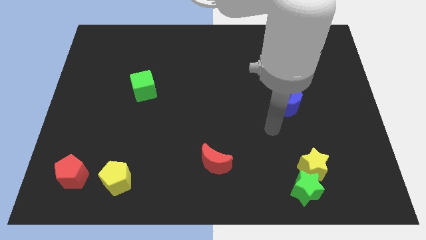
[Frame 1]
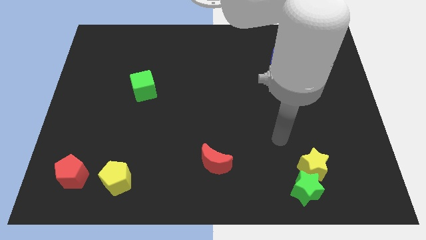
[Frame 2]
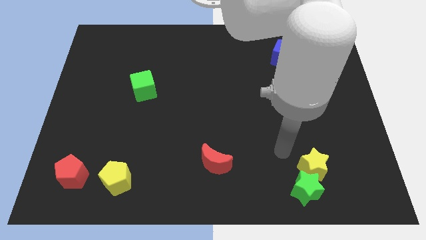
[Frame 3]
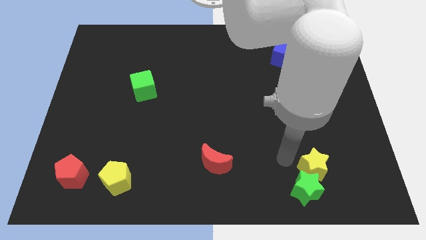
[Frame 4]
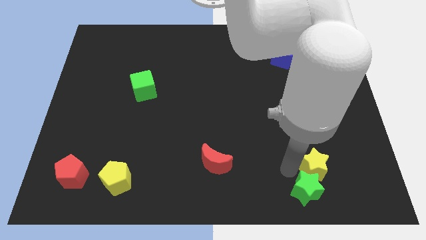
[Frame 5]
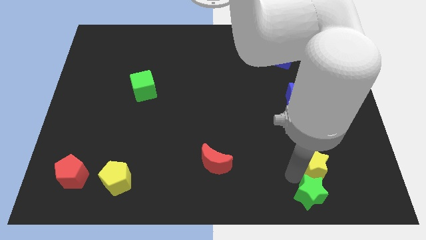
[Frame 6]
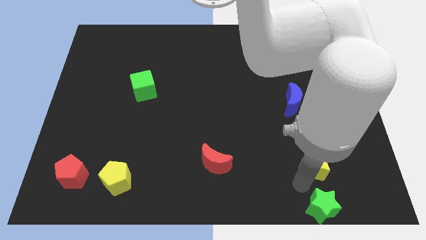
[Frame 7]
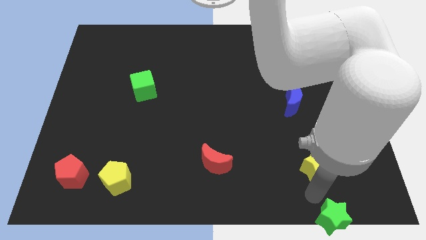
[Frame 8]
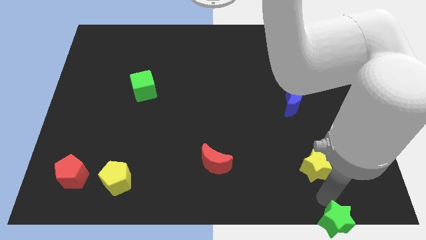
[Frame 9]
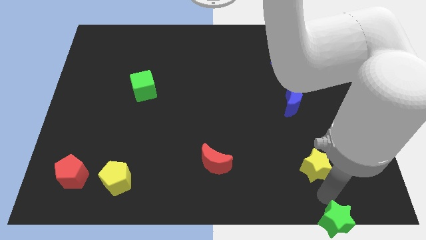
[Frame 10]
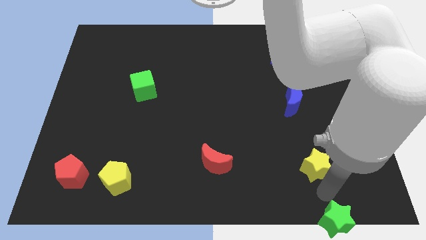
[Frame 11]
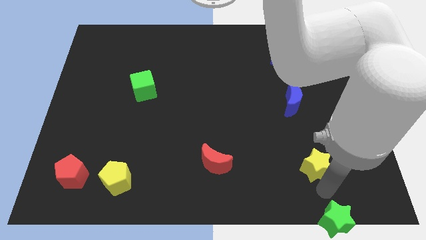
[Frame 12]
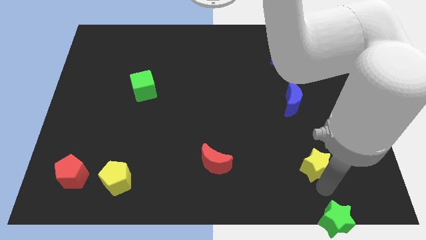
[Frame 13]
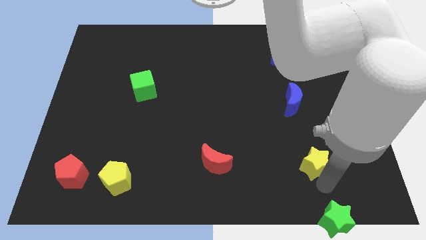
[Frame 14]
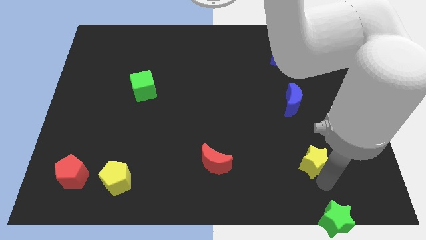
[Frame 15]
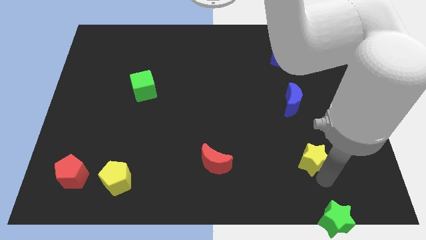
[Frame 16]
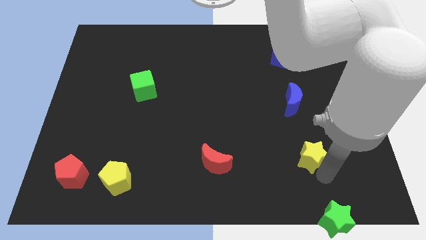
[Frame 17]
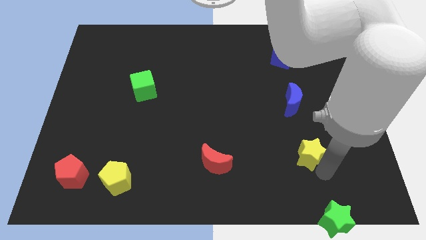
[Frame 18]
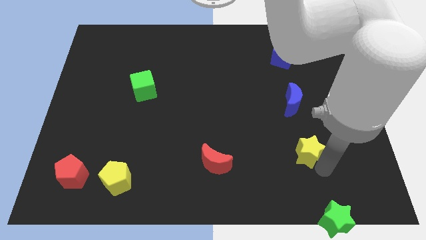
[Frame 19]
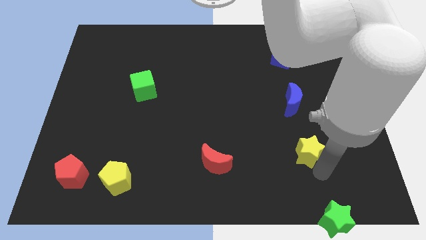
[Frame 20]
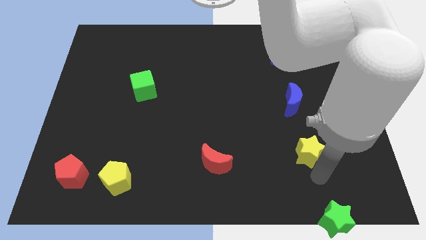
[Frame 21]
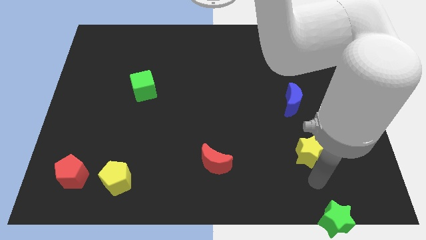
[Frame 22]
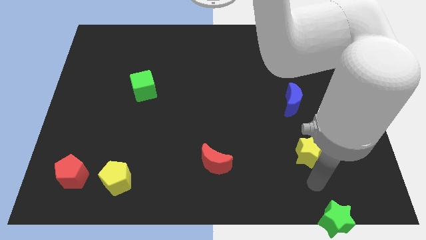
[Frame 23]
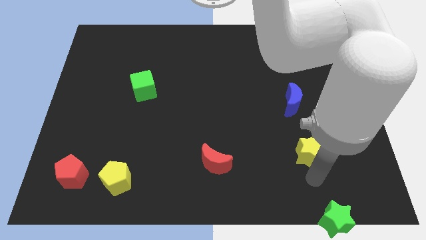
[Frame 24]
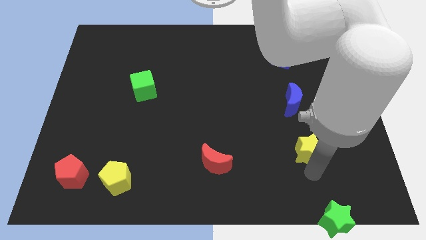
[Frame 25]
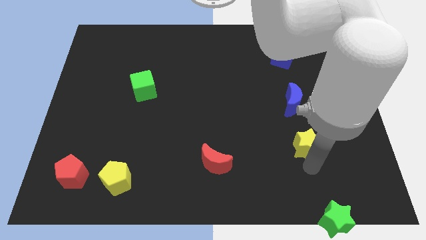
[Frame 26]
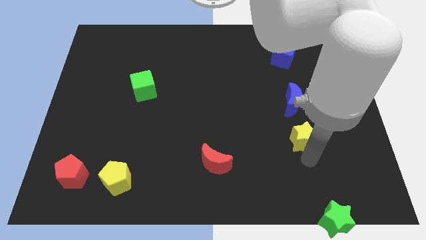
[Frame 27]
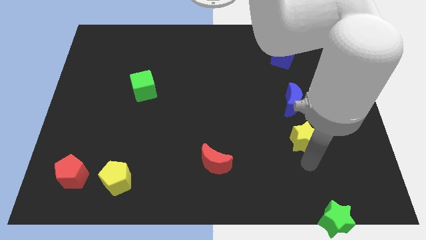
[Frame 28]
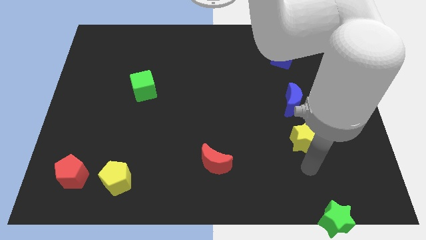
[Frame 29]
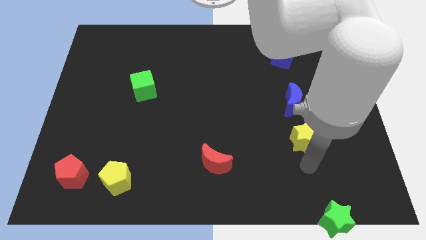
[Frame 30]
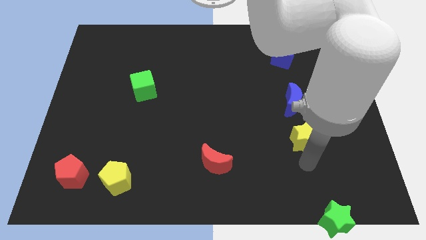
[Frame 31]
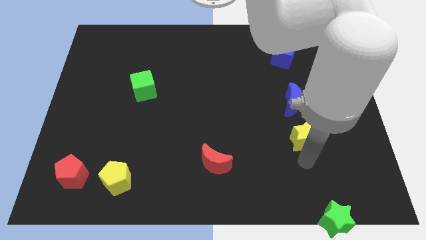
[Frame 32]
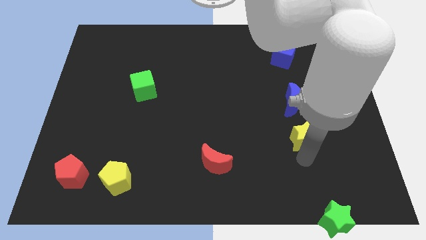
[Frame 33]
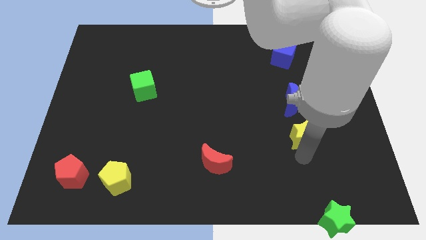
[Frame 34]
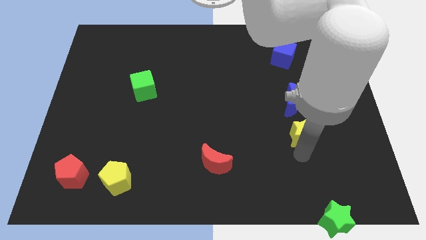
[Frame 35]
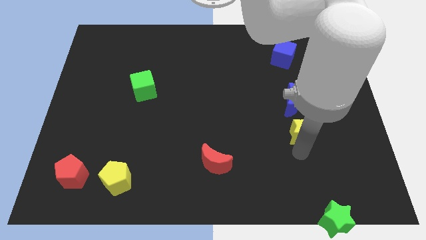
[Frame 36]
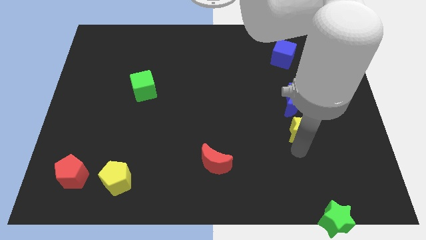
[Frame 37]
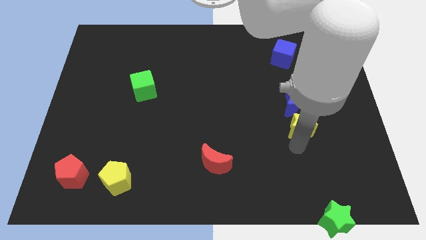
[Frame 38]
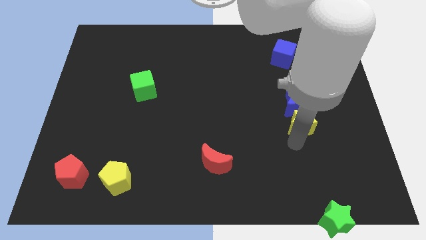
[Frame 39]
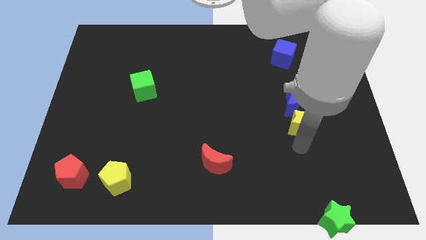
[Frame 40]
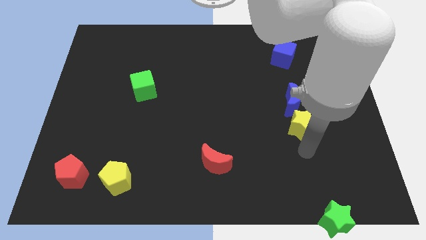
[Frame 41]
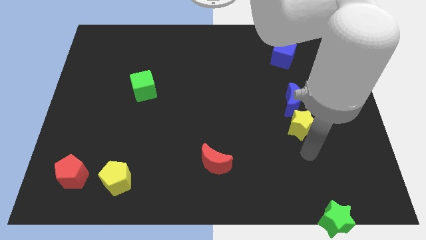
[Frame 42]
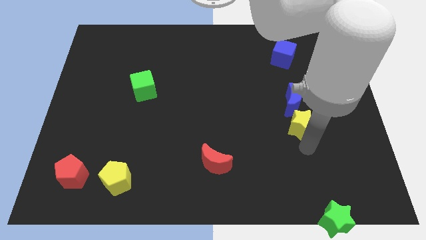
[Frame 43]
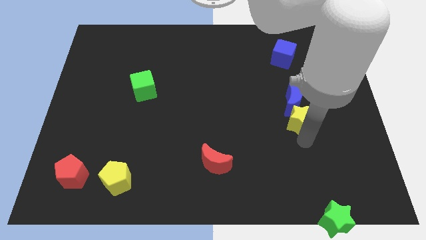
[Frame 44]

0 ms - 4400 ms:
put the yellow star close to the blue moon

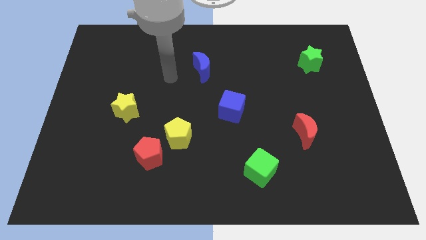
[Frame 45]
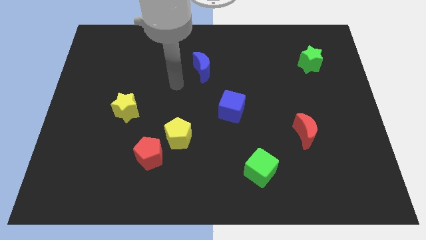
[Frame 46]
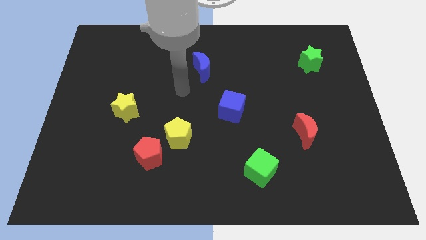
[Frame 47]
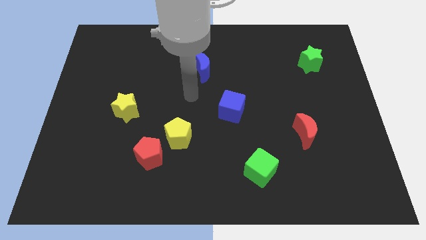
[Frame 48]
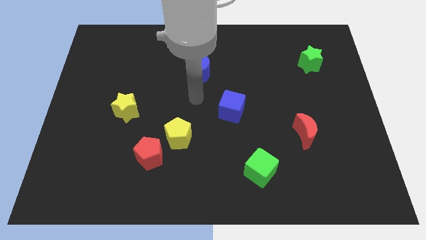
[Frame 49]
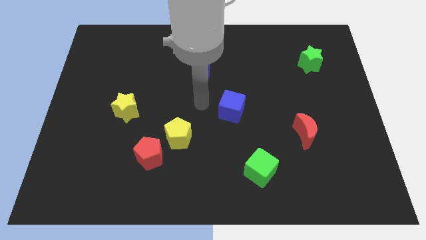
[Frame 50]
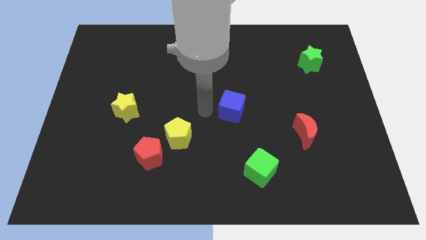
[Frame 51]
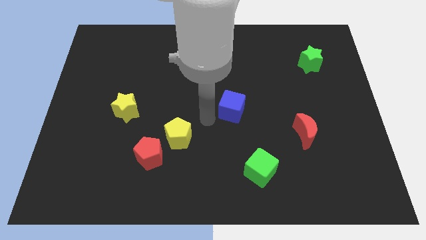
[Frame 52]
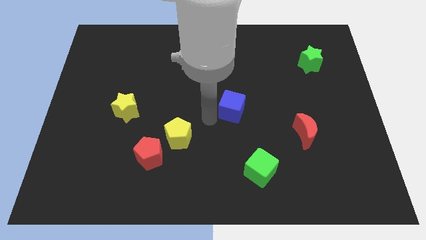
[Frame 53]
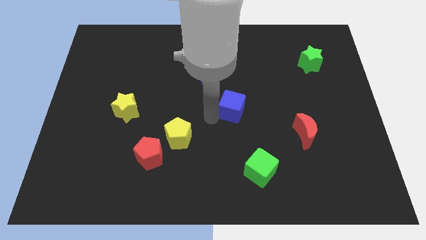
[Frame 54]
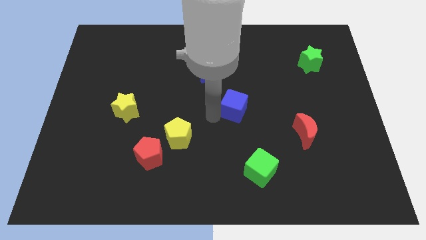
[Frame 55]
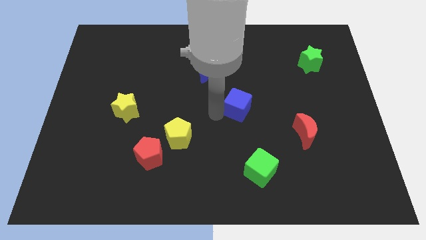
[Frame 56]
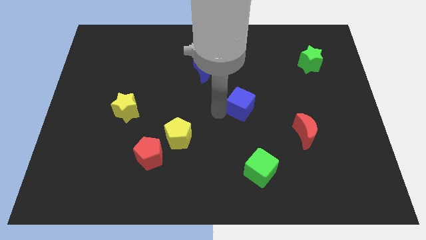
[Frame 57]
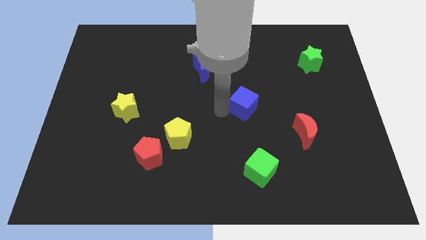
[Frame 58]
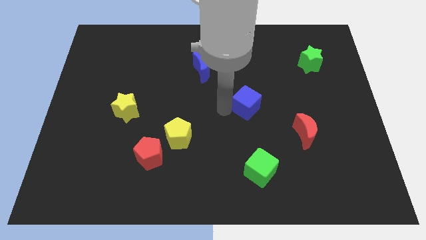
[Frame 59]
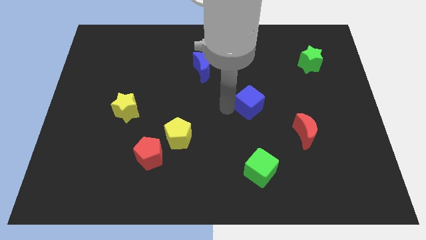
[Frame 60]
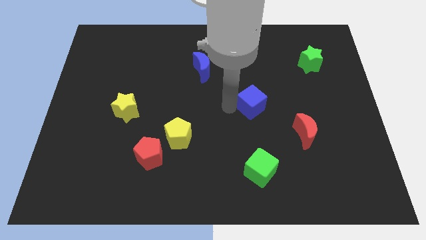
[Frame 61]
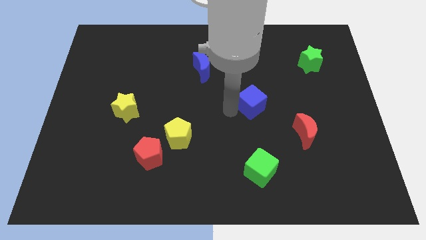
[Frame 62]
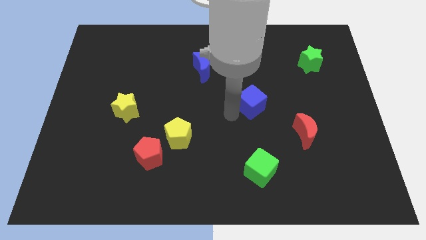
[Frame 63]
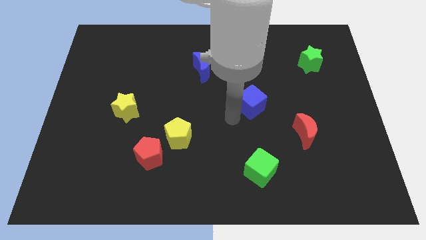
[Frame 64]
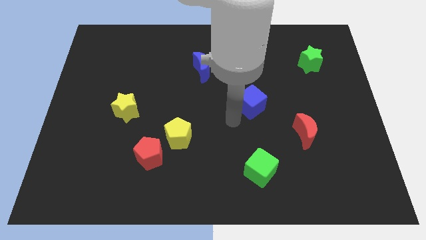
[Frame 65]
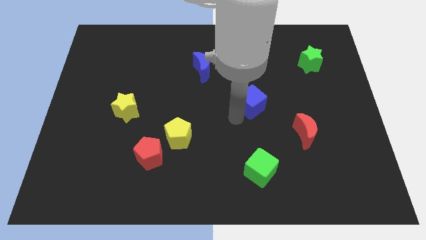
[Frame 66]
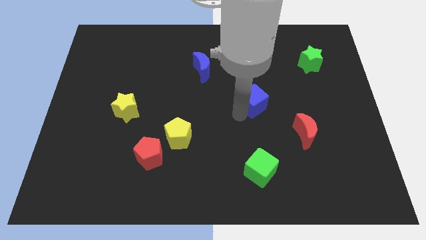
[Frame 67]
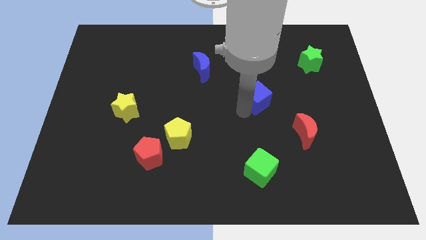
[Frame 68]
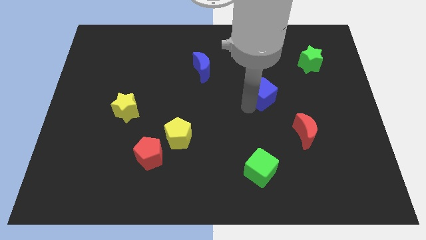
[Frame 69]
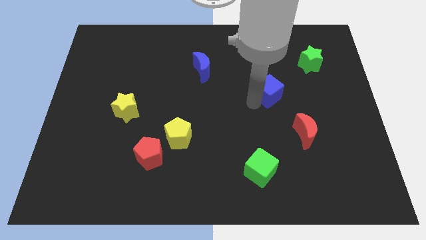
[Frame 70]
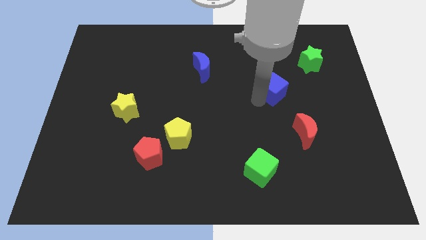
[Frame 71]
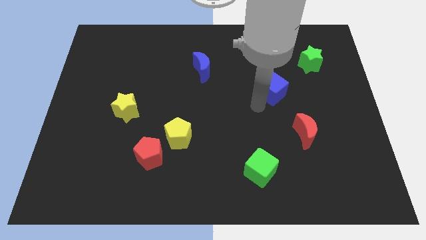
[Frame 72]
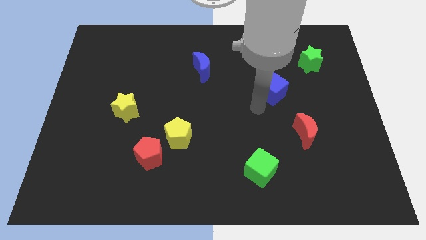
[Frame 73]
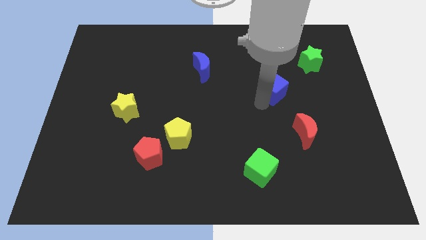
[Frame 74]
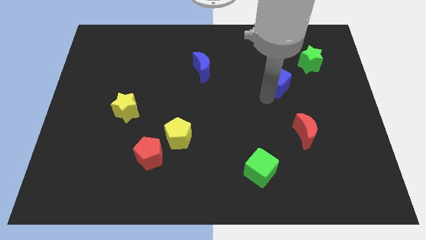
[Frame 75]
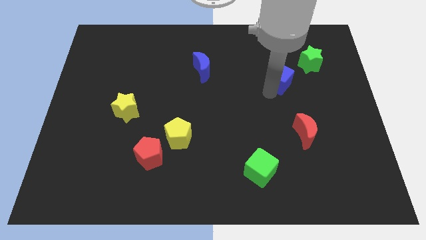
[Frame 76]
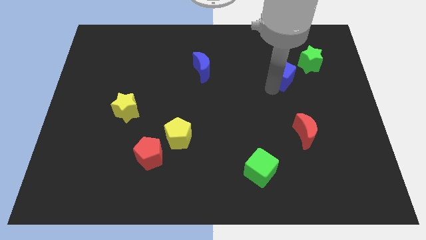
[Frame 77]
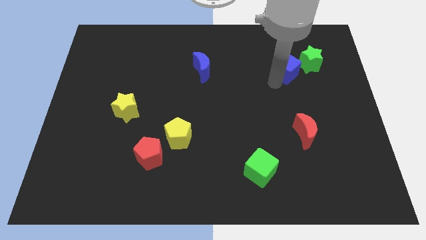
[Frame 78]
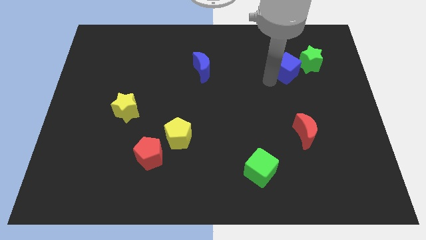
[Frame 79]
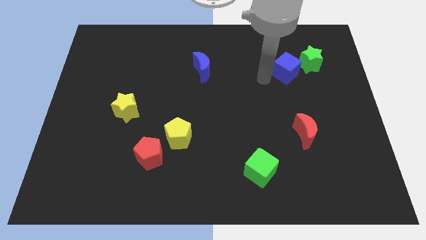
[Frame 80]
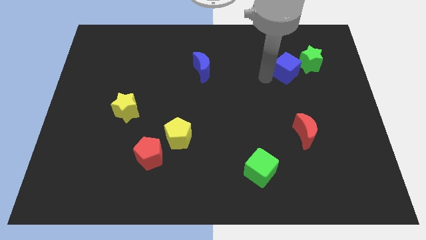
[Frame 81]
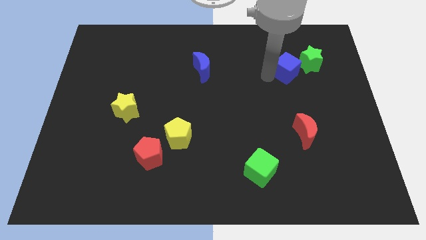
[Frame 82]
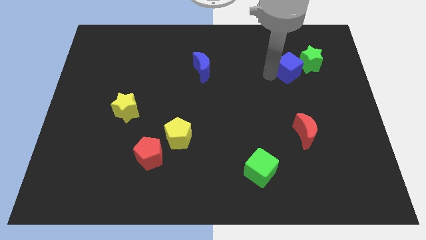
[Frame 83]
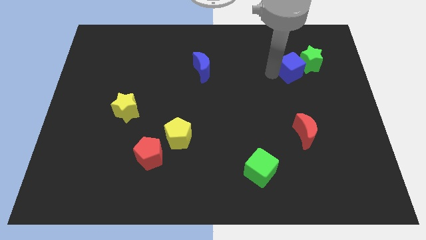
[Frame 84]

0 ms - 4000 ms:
put the blue cube to the green star
